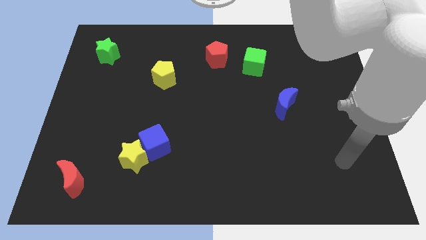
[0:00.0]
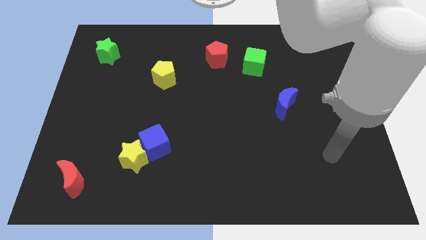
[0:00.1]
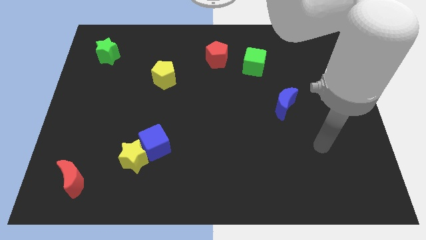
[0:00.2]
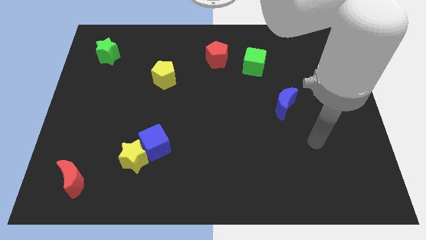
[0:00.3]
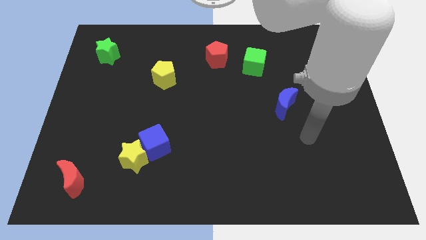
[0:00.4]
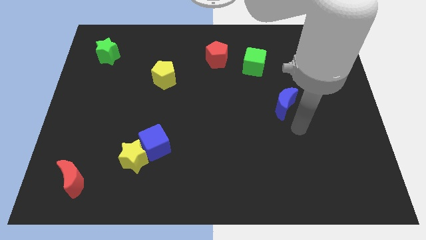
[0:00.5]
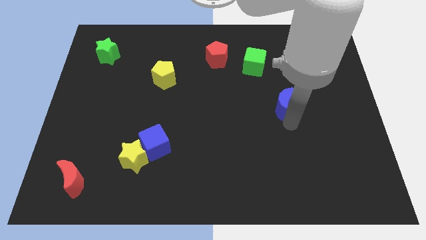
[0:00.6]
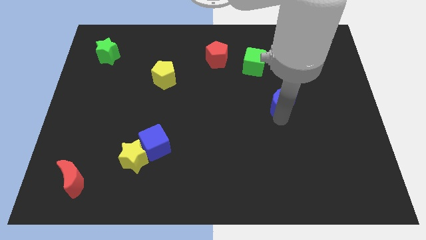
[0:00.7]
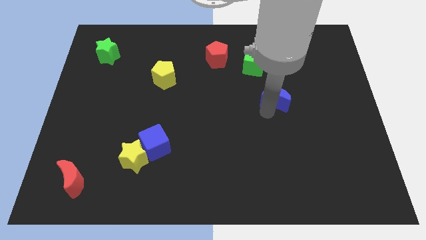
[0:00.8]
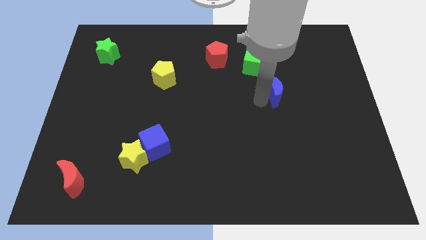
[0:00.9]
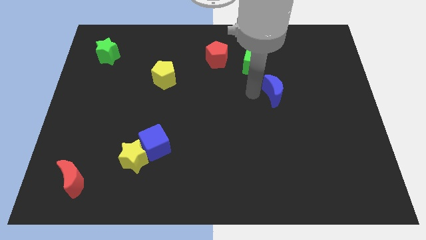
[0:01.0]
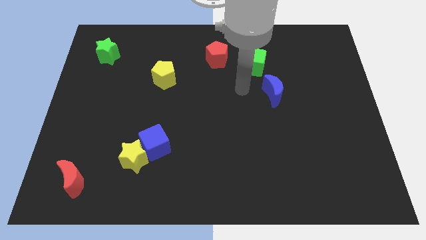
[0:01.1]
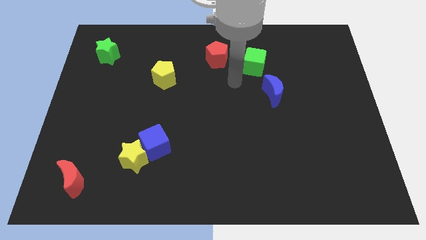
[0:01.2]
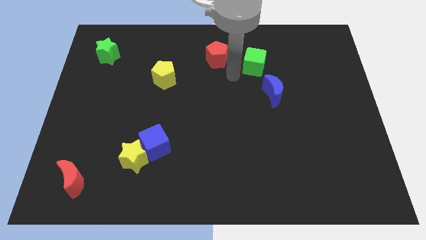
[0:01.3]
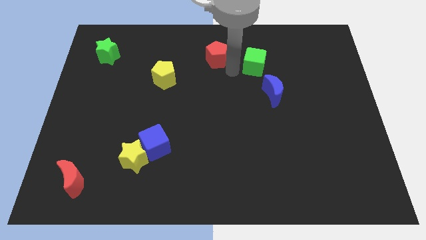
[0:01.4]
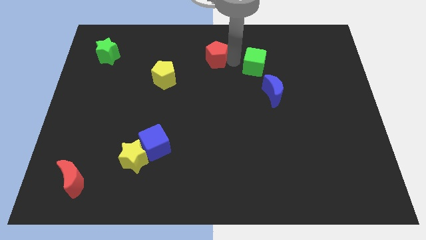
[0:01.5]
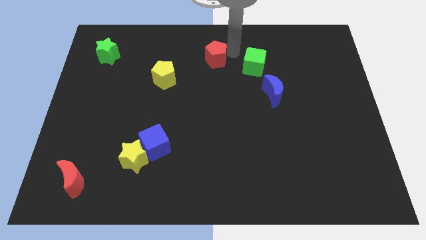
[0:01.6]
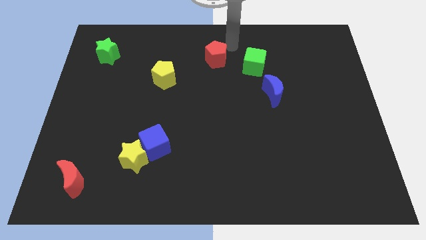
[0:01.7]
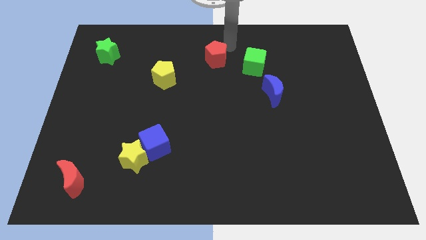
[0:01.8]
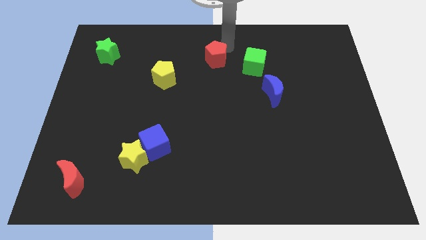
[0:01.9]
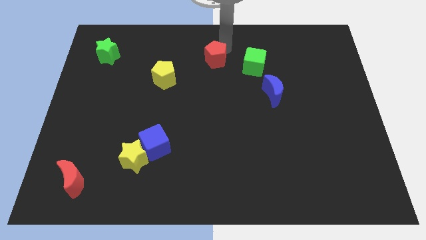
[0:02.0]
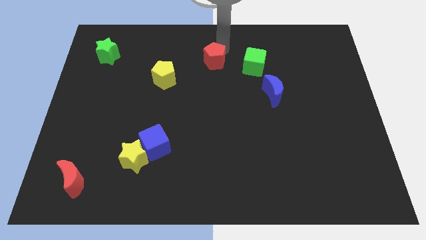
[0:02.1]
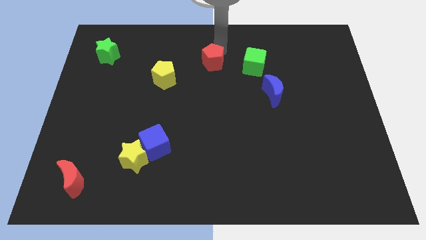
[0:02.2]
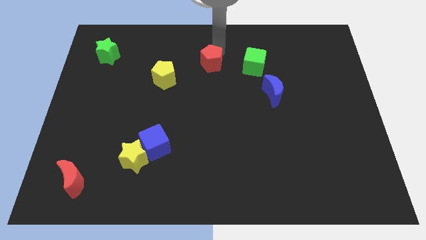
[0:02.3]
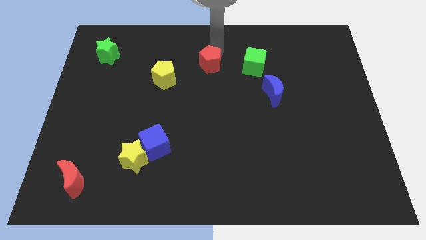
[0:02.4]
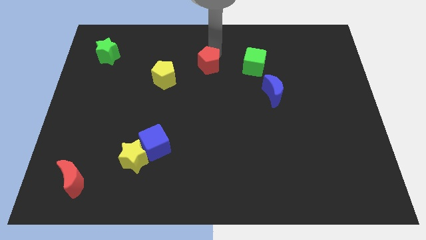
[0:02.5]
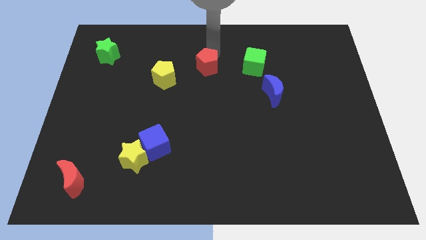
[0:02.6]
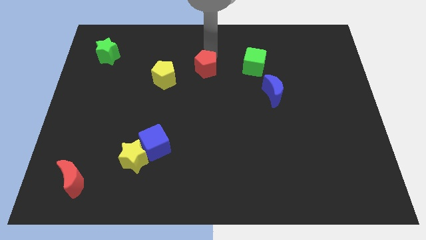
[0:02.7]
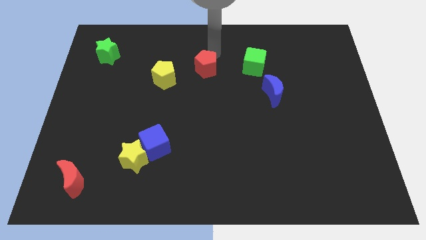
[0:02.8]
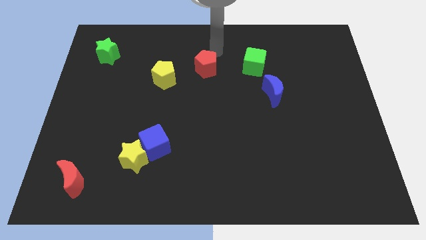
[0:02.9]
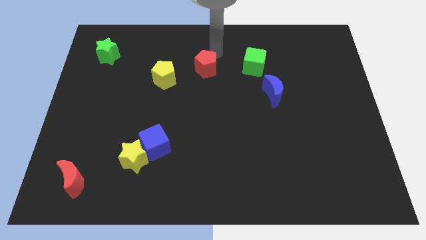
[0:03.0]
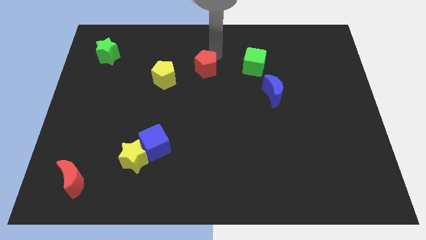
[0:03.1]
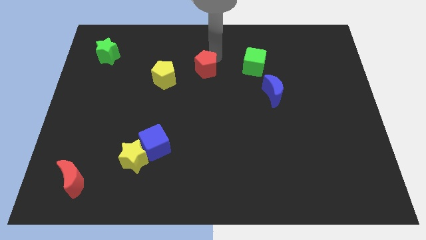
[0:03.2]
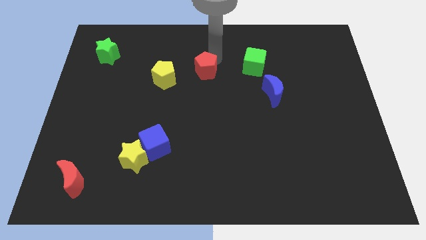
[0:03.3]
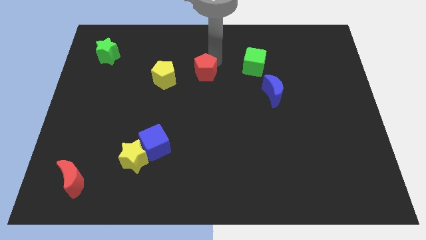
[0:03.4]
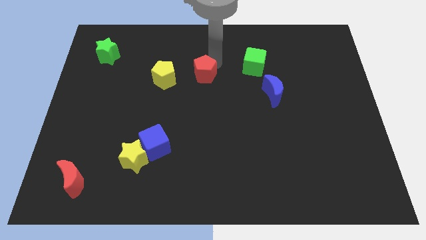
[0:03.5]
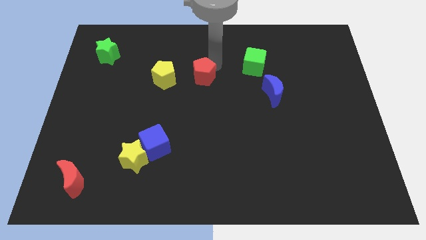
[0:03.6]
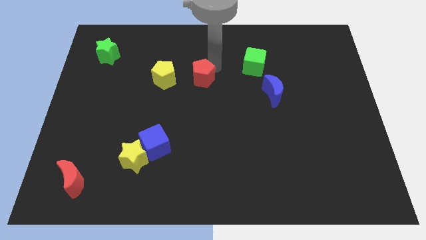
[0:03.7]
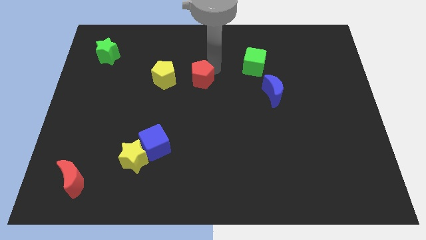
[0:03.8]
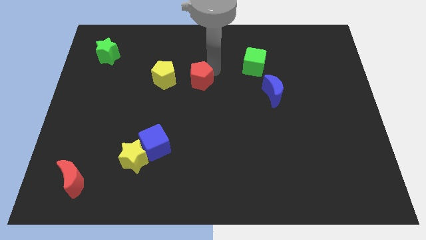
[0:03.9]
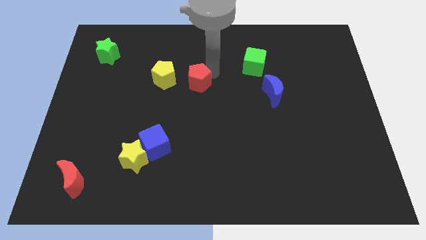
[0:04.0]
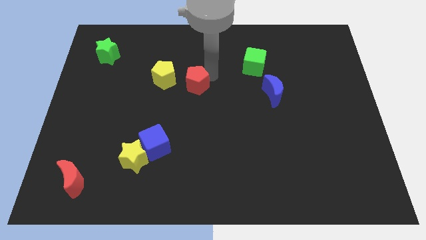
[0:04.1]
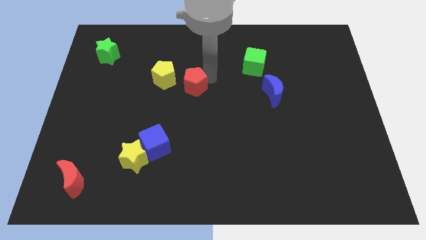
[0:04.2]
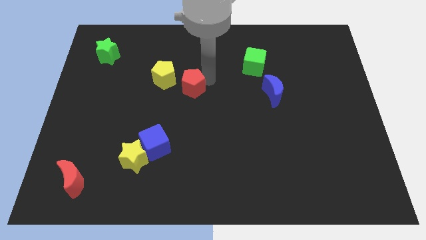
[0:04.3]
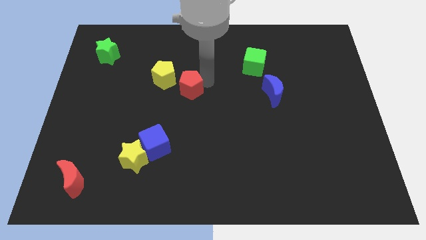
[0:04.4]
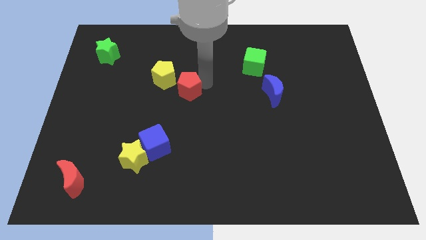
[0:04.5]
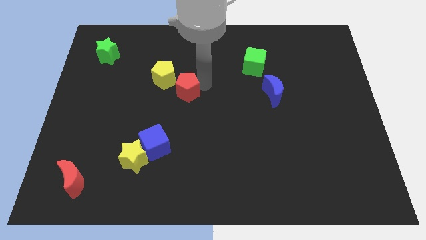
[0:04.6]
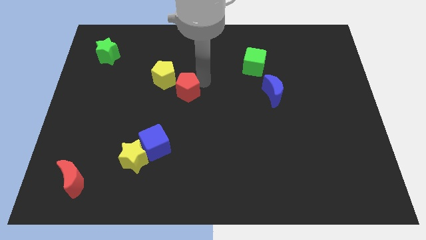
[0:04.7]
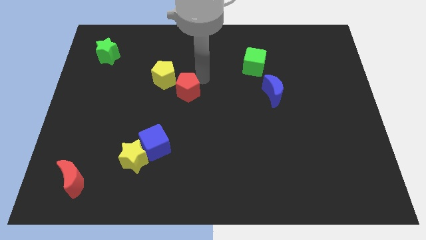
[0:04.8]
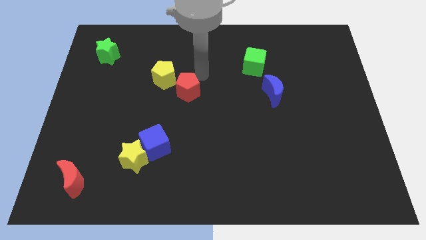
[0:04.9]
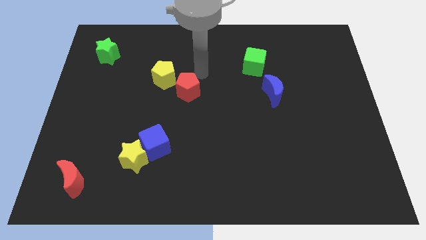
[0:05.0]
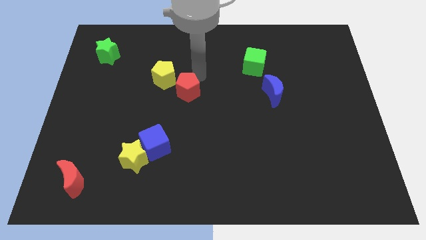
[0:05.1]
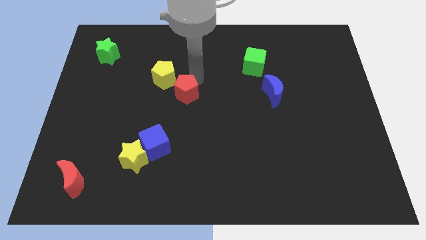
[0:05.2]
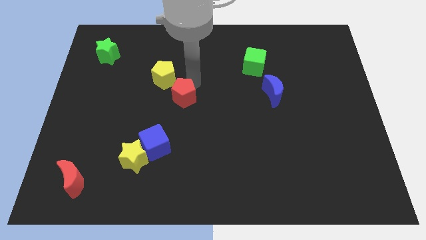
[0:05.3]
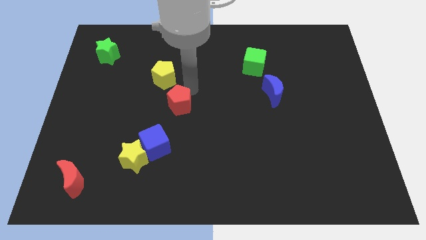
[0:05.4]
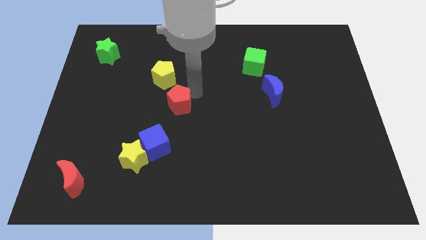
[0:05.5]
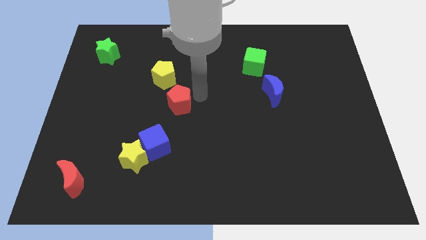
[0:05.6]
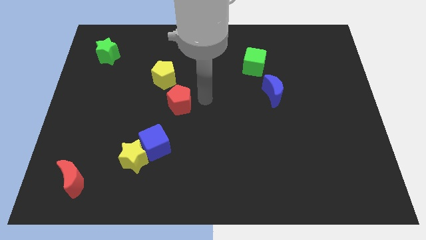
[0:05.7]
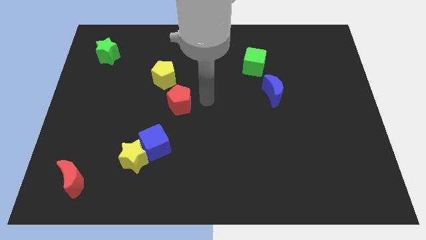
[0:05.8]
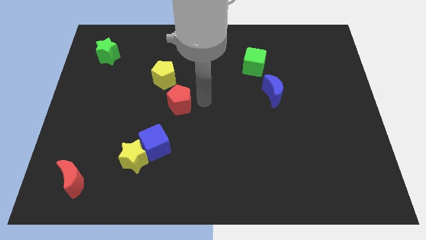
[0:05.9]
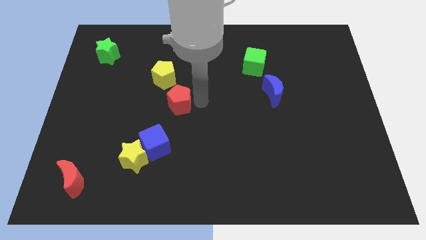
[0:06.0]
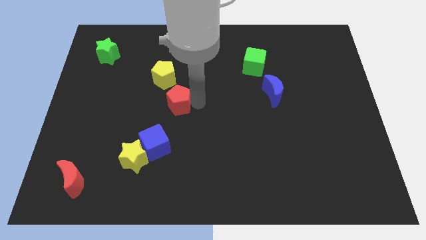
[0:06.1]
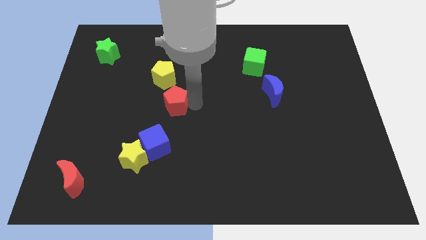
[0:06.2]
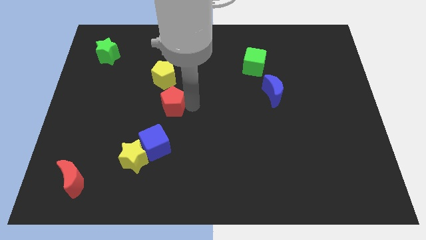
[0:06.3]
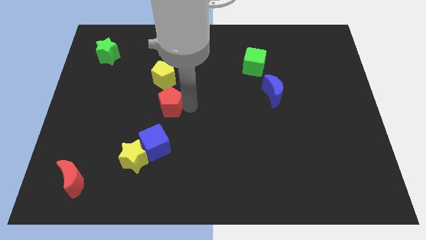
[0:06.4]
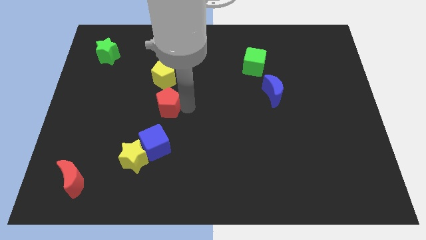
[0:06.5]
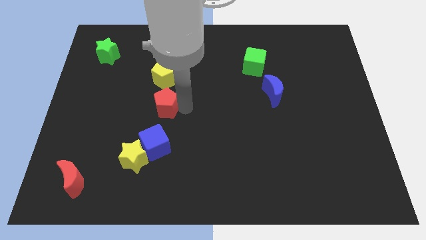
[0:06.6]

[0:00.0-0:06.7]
move the red pentagon downwards and left

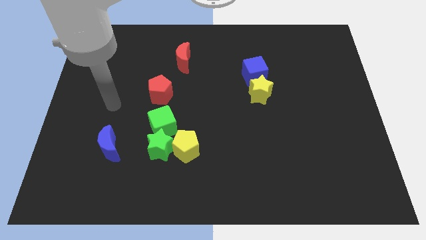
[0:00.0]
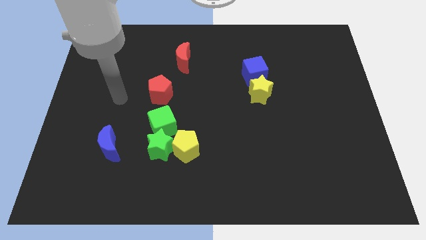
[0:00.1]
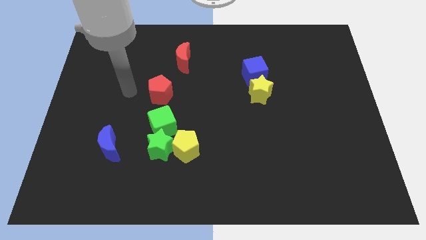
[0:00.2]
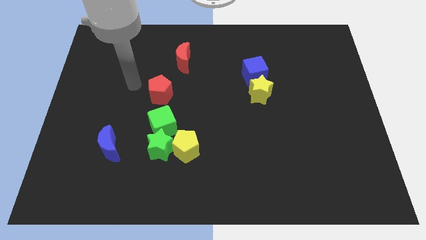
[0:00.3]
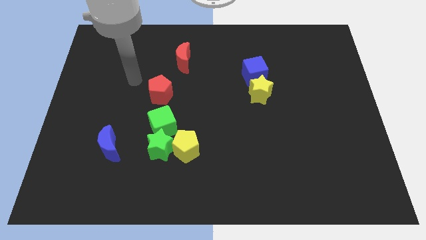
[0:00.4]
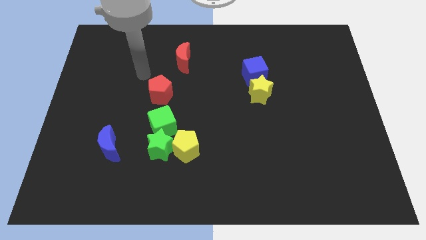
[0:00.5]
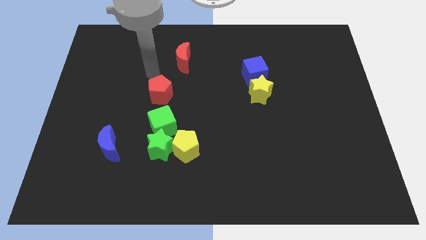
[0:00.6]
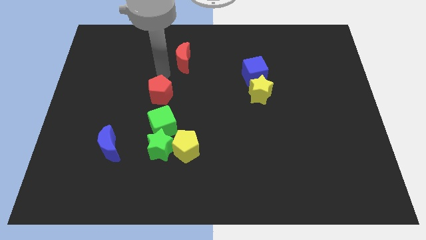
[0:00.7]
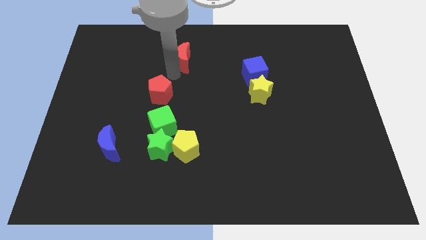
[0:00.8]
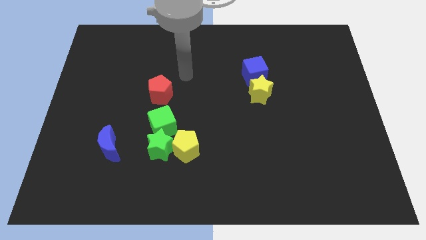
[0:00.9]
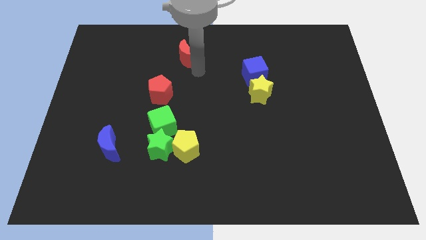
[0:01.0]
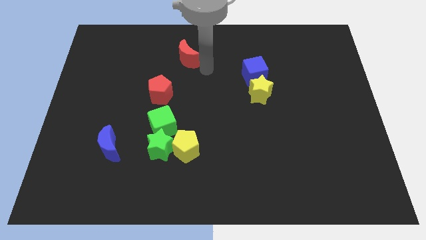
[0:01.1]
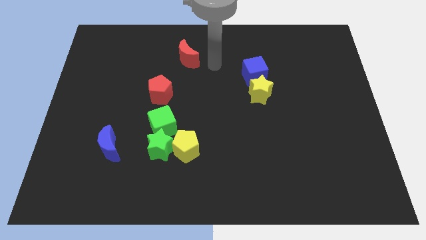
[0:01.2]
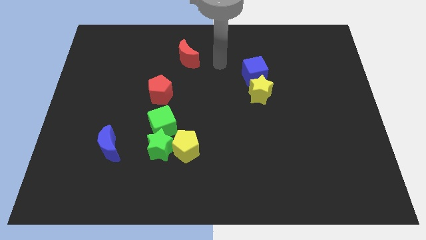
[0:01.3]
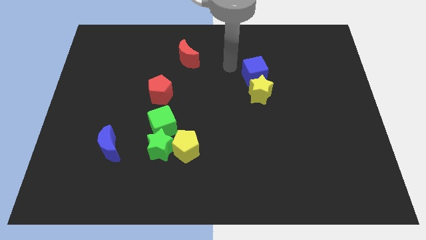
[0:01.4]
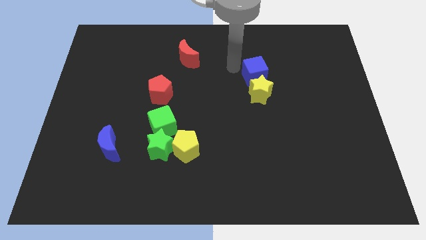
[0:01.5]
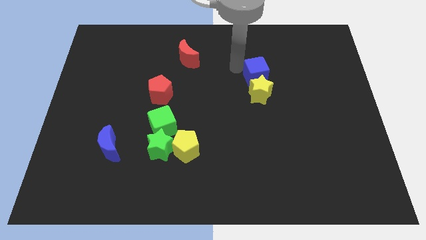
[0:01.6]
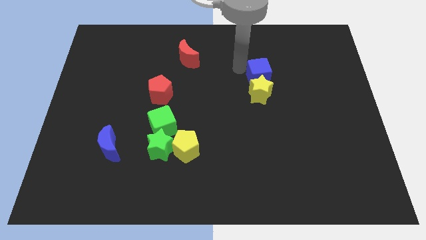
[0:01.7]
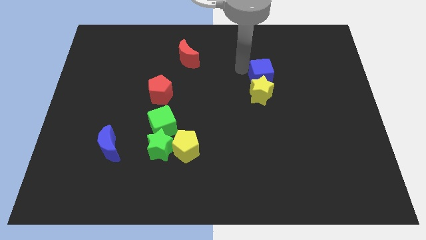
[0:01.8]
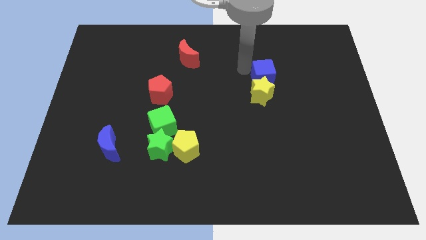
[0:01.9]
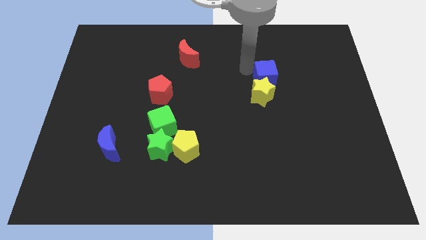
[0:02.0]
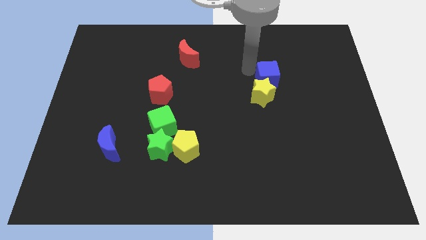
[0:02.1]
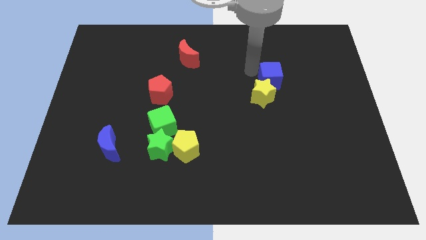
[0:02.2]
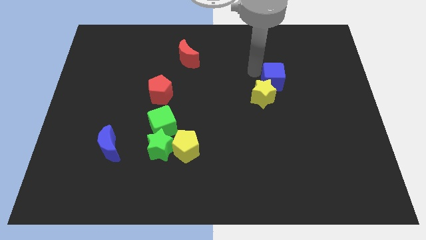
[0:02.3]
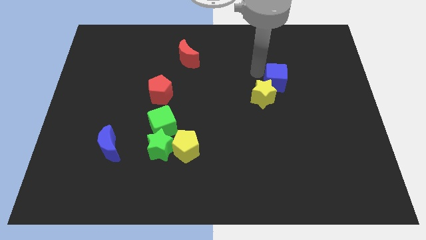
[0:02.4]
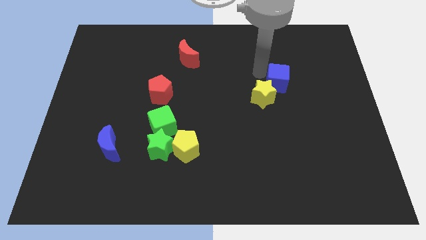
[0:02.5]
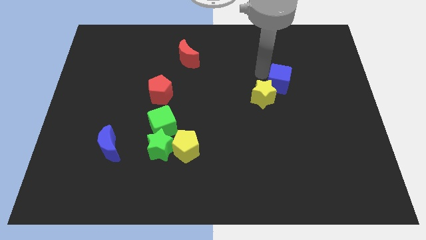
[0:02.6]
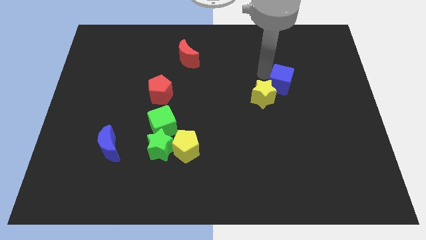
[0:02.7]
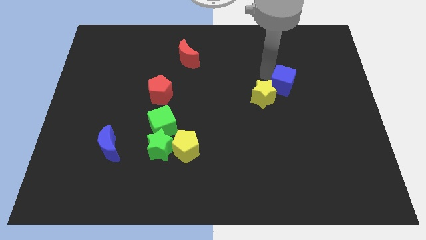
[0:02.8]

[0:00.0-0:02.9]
slightly push the blue cube down and to the right
